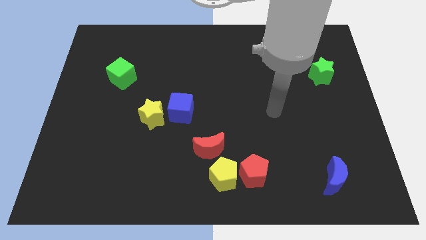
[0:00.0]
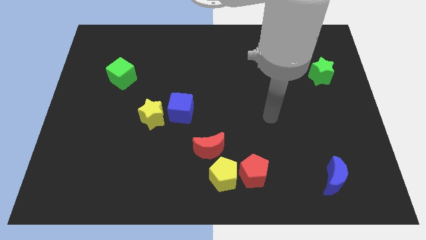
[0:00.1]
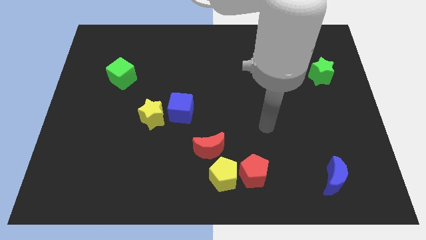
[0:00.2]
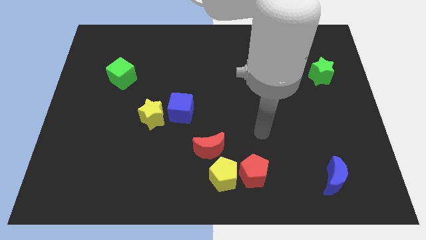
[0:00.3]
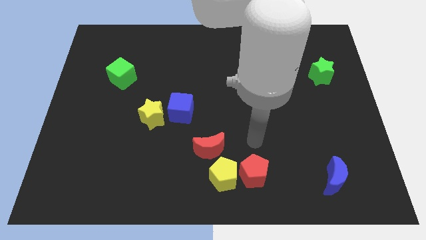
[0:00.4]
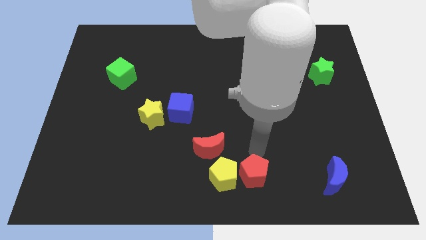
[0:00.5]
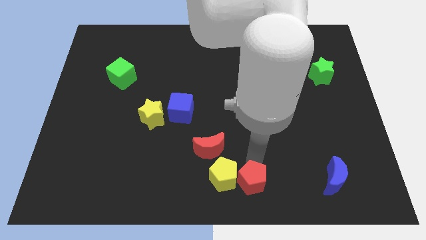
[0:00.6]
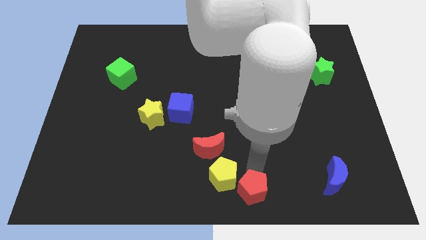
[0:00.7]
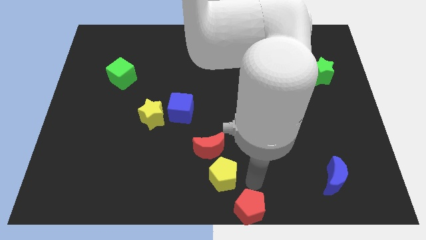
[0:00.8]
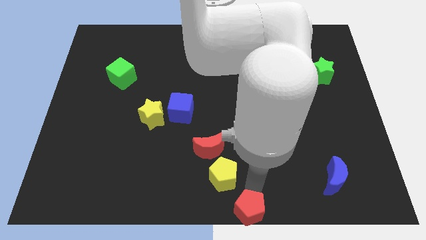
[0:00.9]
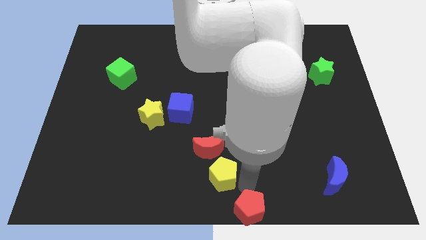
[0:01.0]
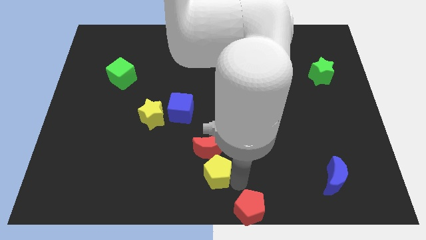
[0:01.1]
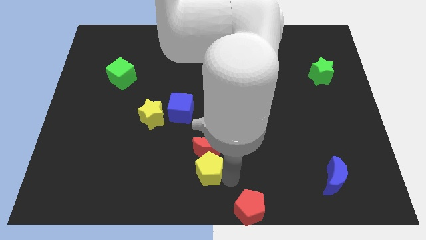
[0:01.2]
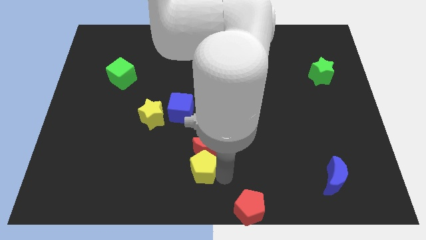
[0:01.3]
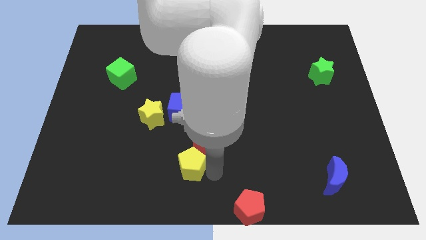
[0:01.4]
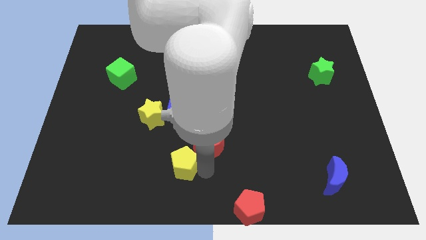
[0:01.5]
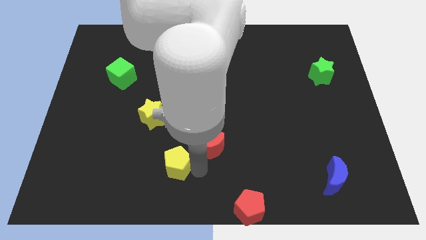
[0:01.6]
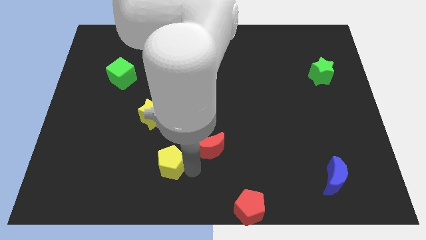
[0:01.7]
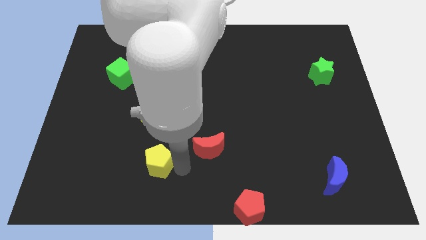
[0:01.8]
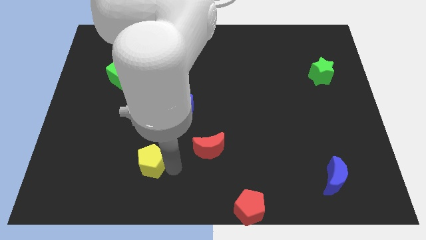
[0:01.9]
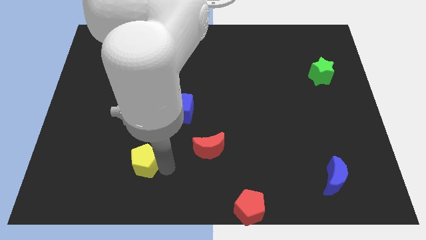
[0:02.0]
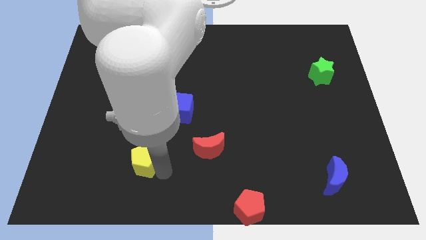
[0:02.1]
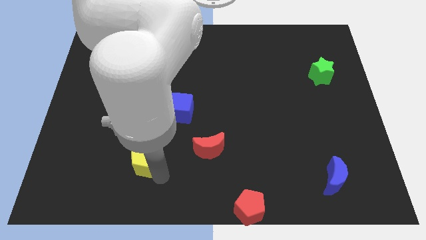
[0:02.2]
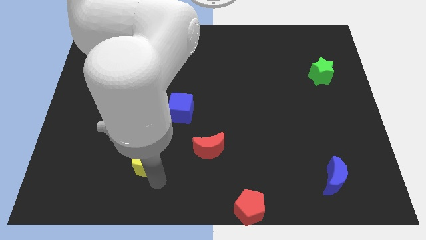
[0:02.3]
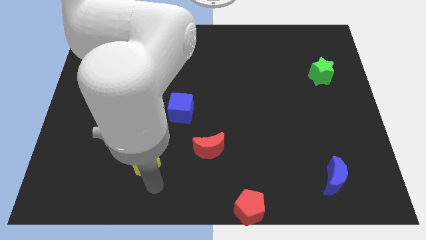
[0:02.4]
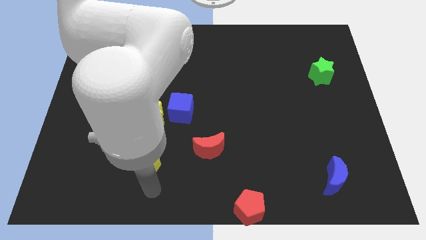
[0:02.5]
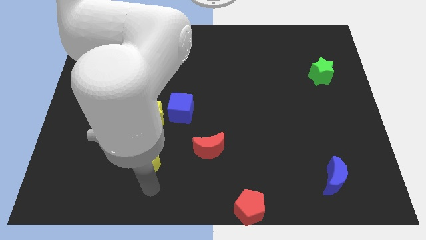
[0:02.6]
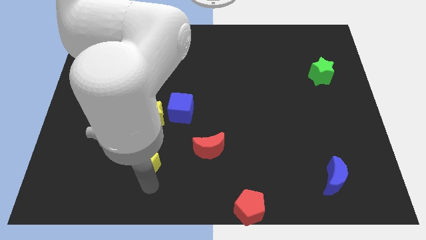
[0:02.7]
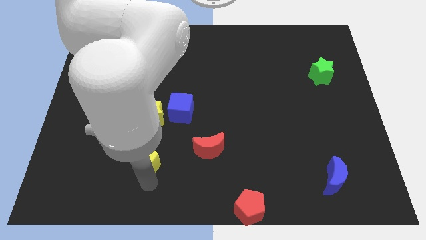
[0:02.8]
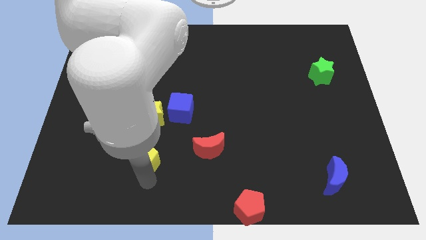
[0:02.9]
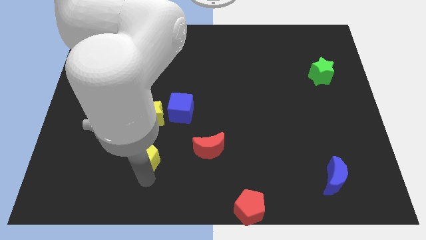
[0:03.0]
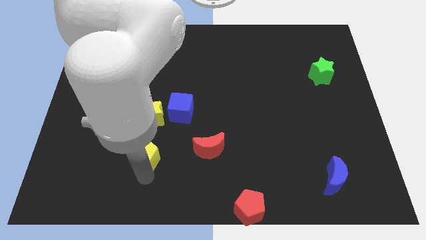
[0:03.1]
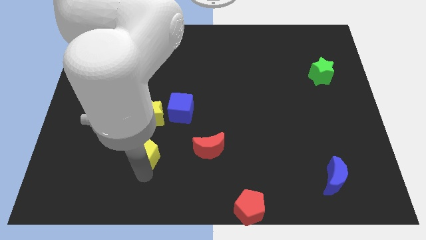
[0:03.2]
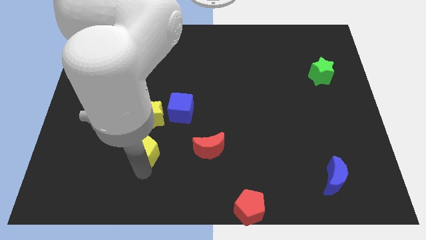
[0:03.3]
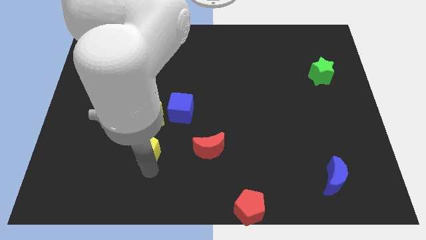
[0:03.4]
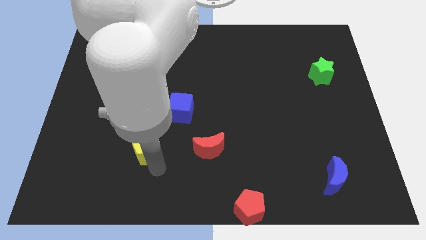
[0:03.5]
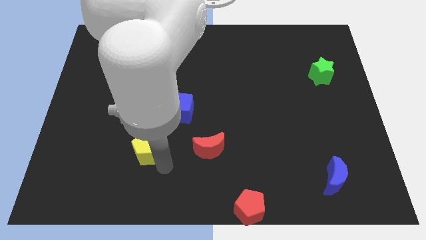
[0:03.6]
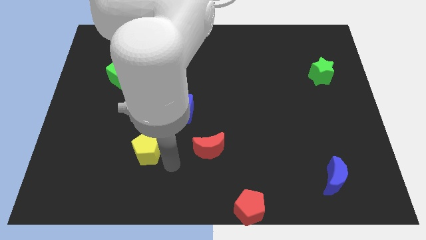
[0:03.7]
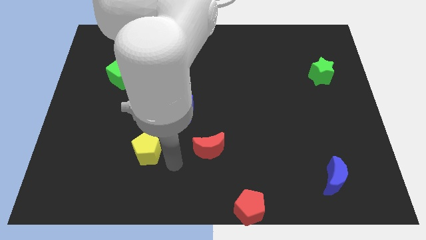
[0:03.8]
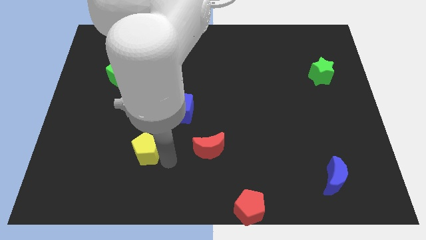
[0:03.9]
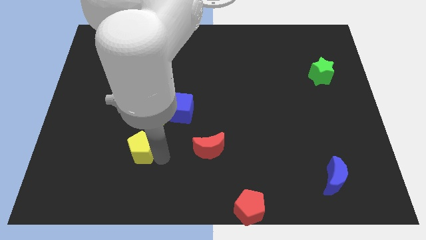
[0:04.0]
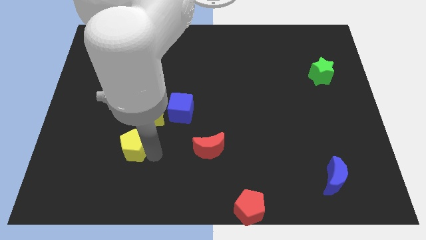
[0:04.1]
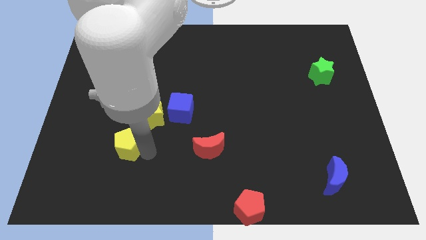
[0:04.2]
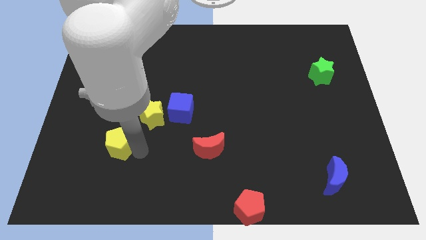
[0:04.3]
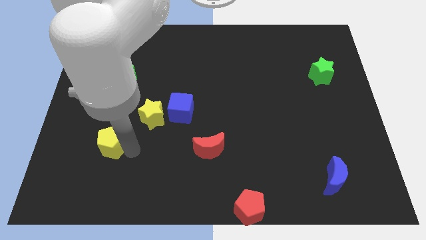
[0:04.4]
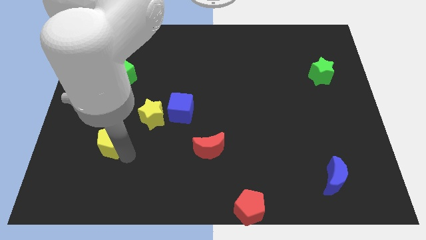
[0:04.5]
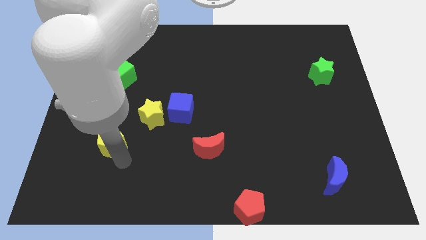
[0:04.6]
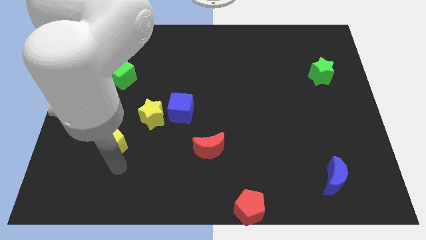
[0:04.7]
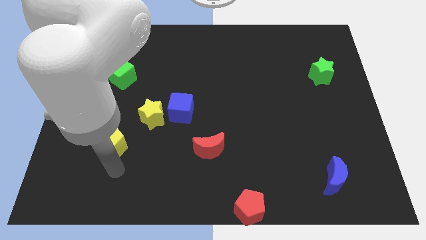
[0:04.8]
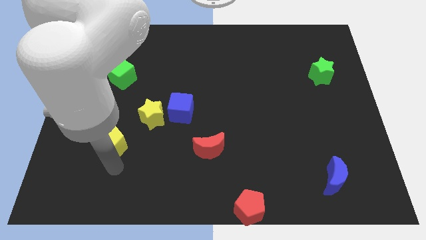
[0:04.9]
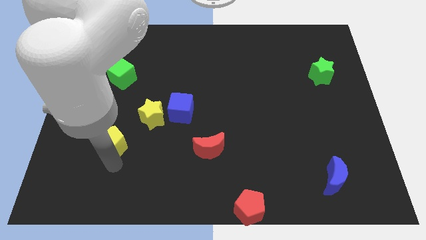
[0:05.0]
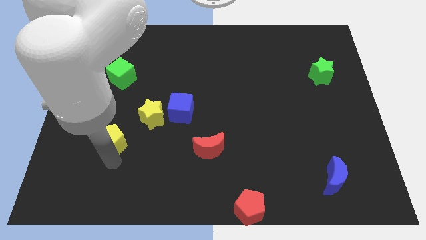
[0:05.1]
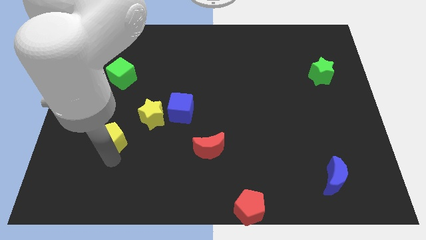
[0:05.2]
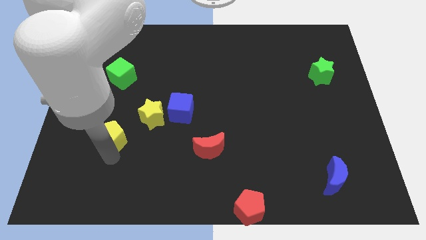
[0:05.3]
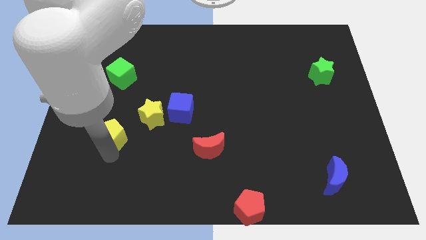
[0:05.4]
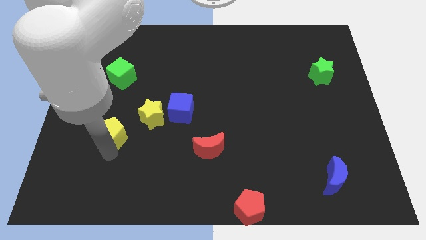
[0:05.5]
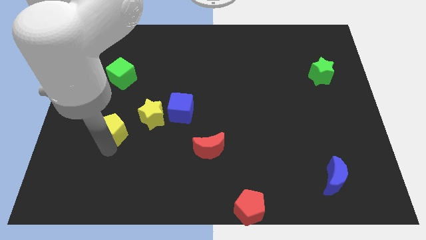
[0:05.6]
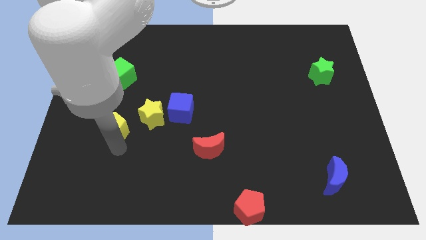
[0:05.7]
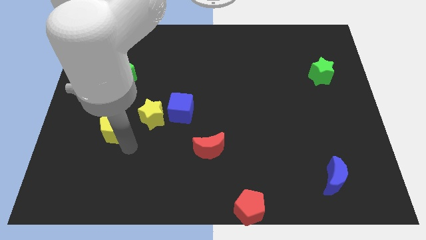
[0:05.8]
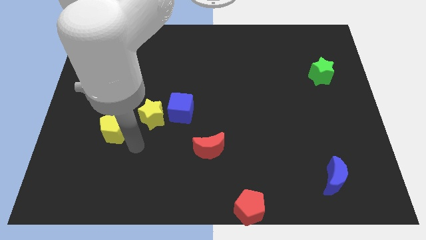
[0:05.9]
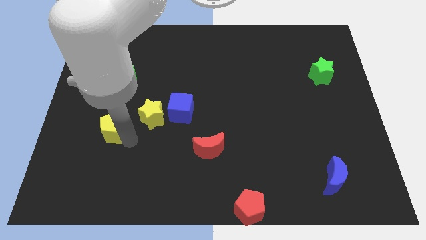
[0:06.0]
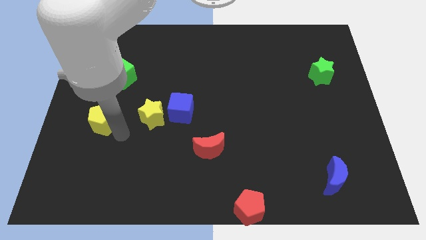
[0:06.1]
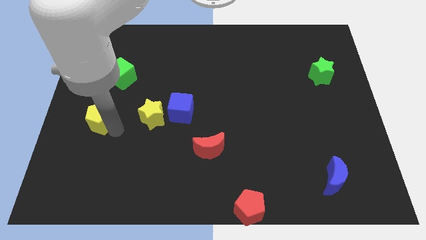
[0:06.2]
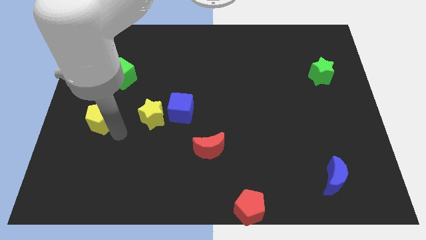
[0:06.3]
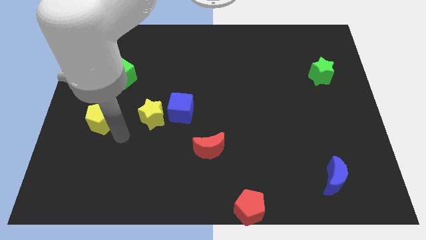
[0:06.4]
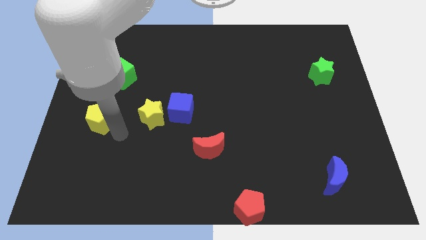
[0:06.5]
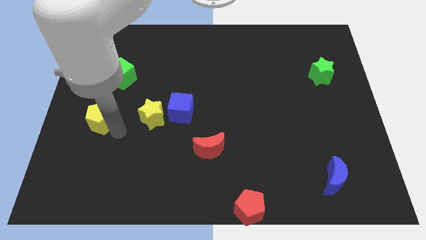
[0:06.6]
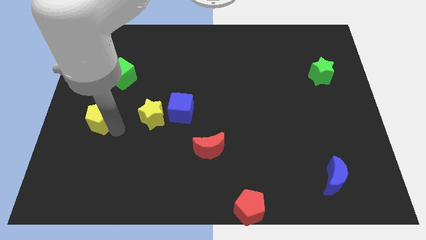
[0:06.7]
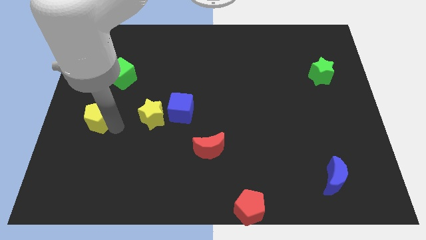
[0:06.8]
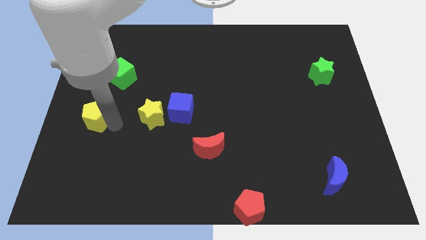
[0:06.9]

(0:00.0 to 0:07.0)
push the yellow pentagon to the center left

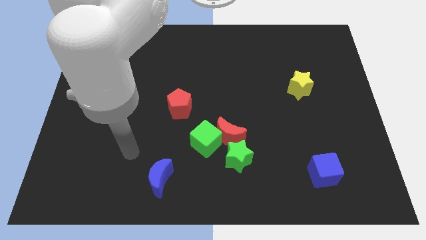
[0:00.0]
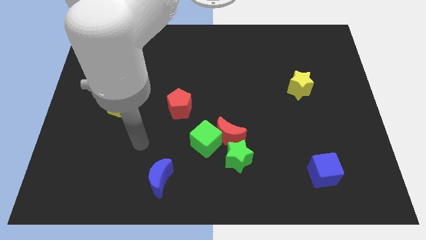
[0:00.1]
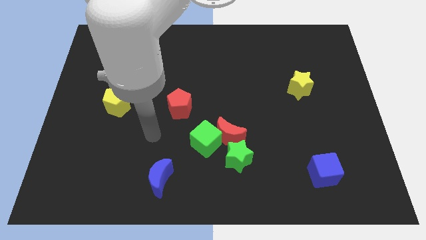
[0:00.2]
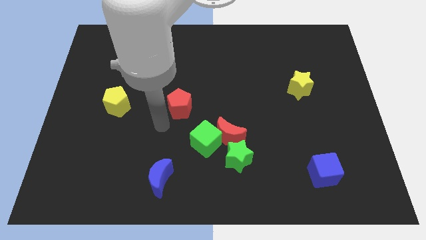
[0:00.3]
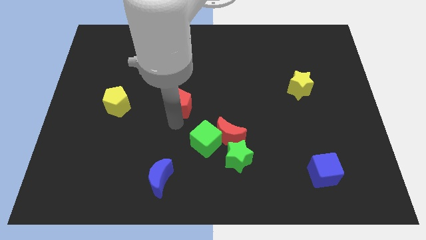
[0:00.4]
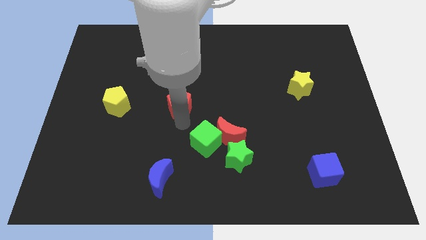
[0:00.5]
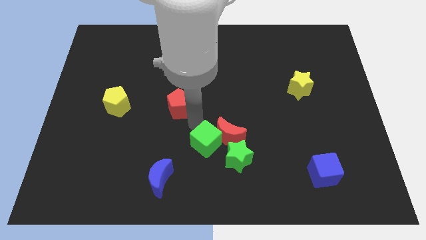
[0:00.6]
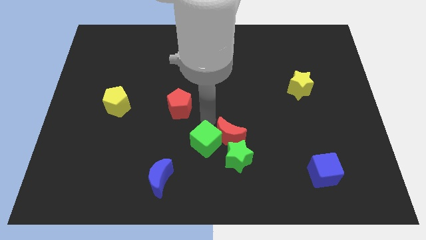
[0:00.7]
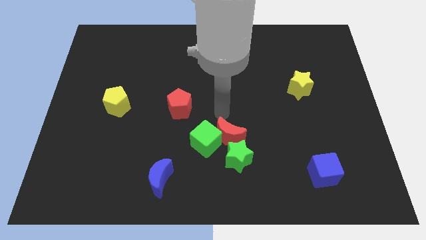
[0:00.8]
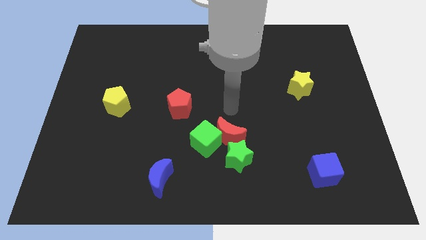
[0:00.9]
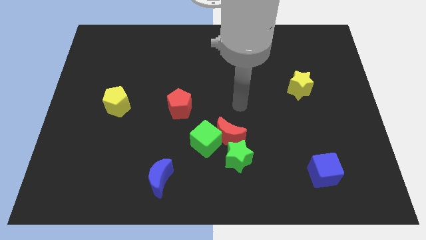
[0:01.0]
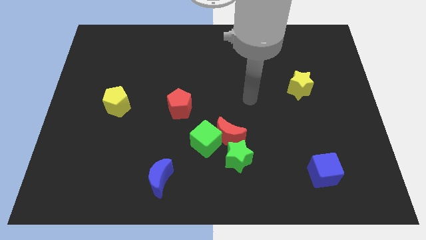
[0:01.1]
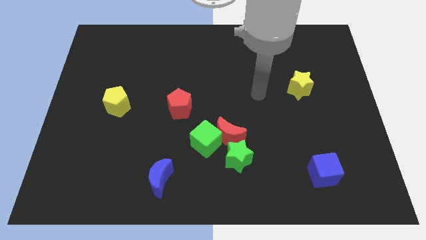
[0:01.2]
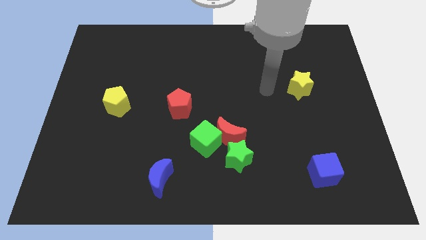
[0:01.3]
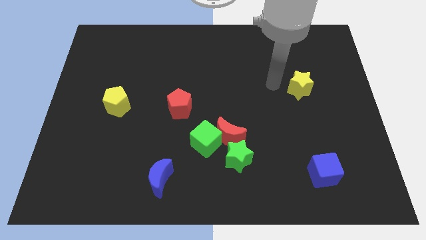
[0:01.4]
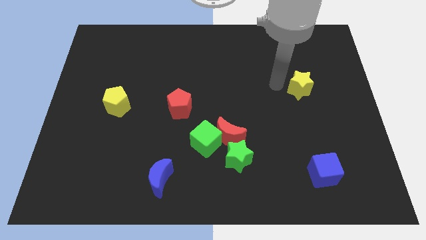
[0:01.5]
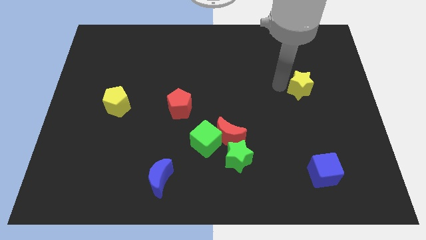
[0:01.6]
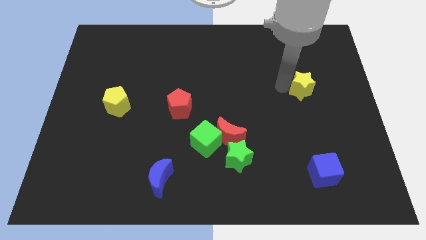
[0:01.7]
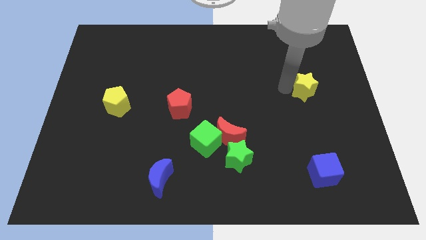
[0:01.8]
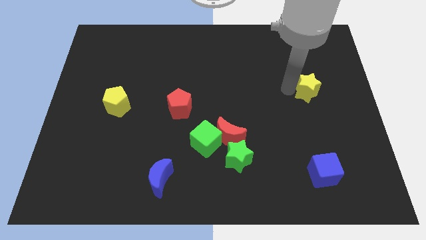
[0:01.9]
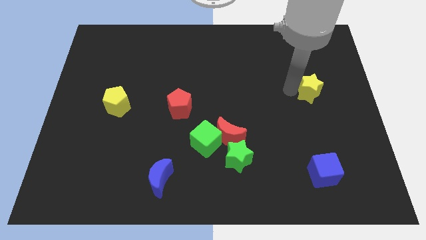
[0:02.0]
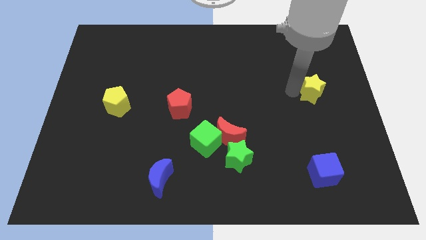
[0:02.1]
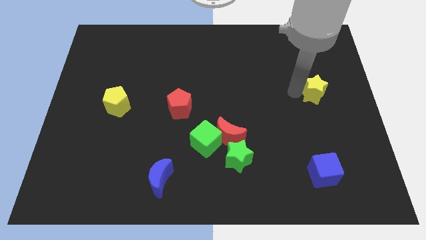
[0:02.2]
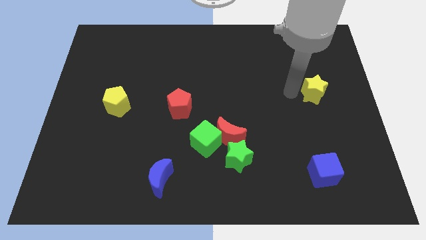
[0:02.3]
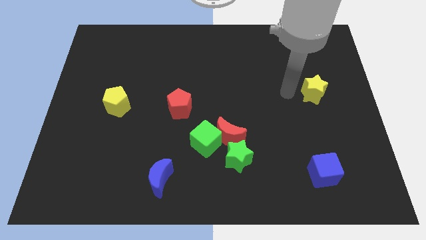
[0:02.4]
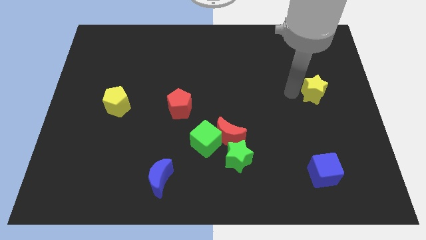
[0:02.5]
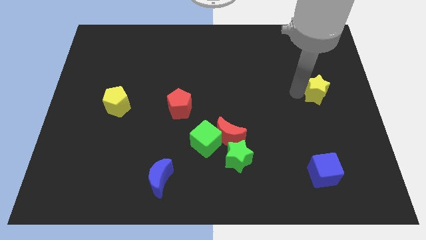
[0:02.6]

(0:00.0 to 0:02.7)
push the yellow star to the right side of the board
